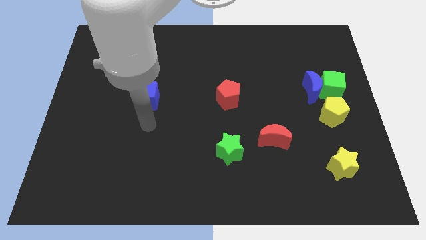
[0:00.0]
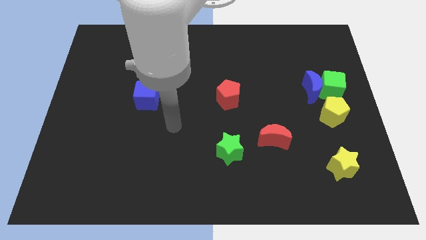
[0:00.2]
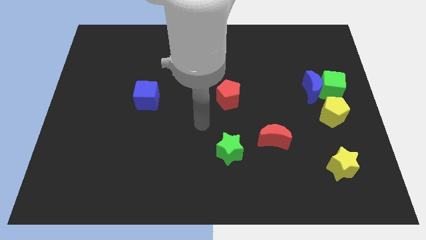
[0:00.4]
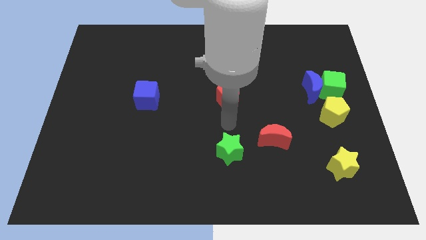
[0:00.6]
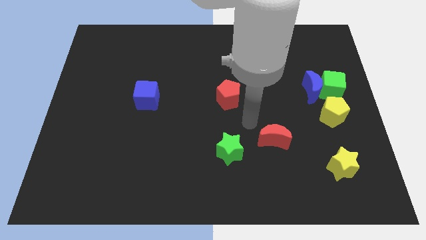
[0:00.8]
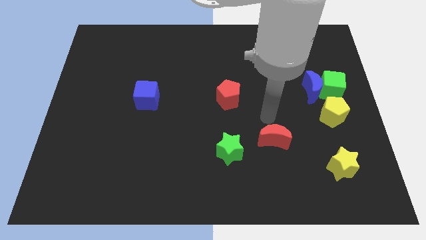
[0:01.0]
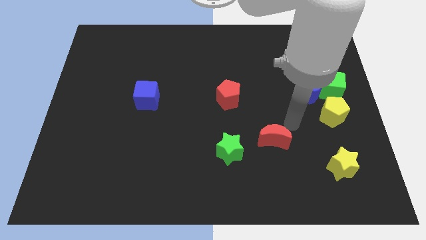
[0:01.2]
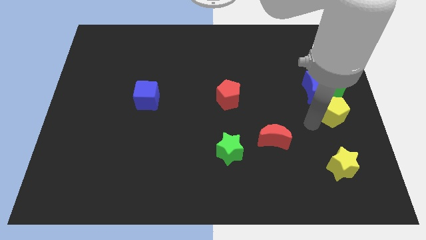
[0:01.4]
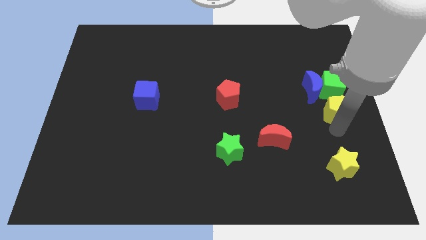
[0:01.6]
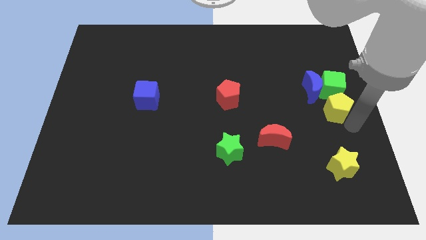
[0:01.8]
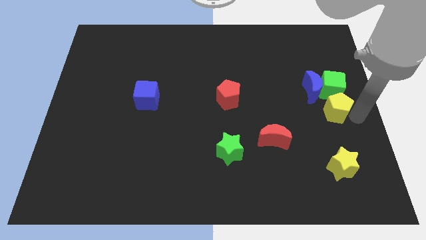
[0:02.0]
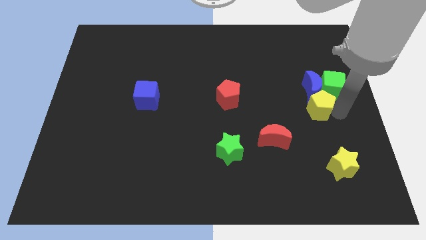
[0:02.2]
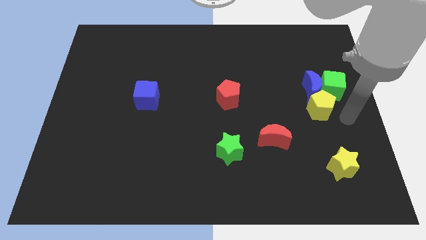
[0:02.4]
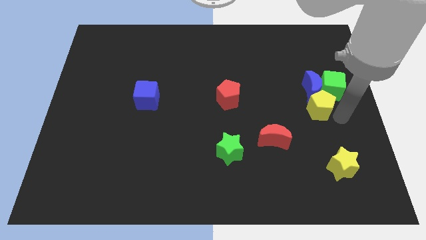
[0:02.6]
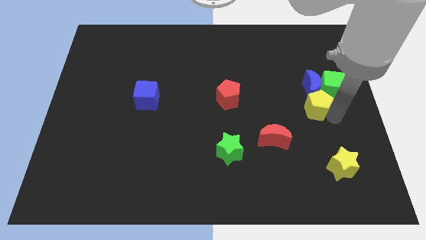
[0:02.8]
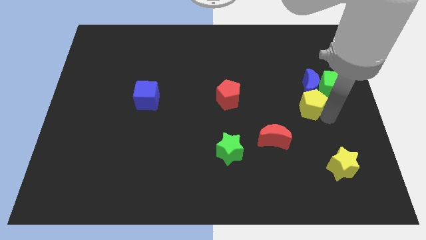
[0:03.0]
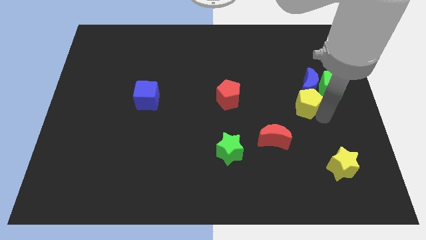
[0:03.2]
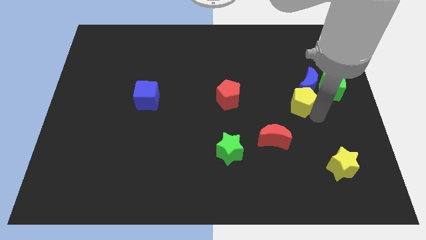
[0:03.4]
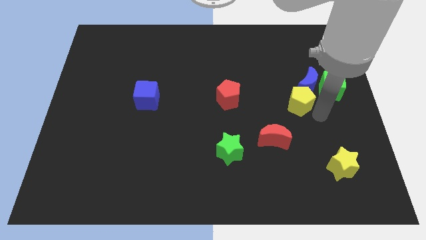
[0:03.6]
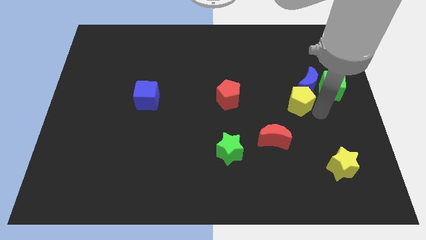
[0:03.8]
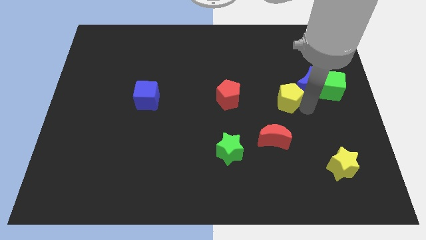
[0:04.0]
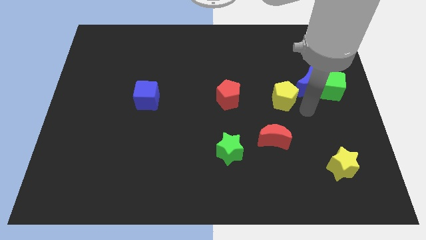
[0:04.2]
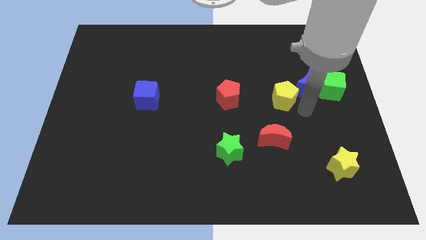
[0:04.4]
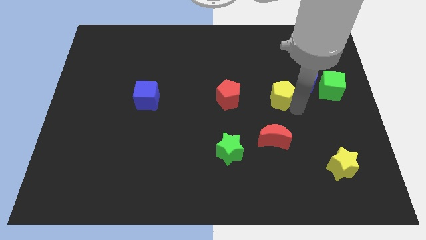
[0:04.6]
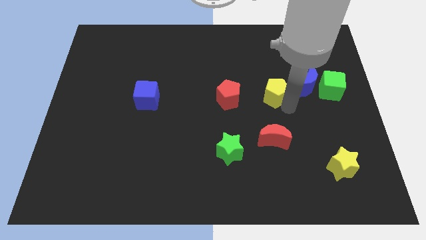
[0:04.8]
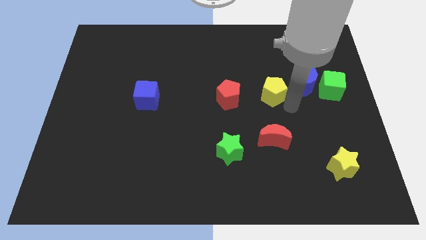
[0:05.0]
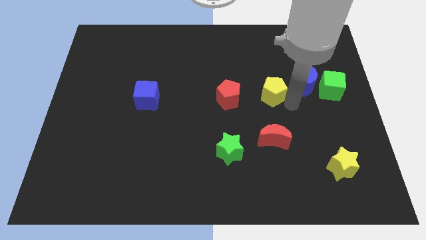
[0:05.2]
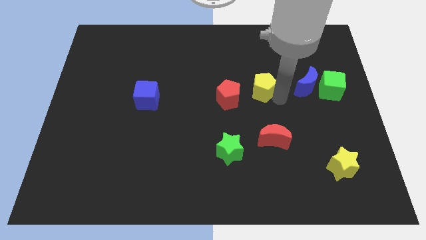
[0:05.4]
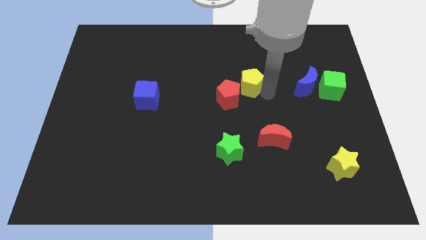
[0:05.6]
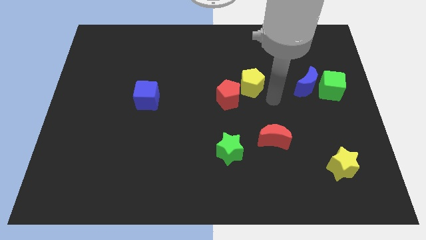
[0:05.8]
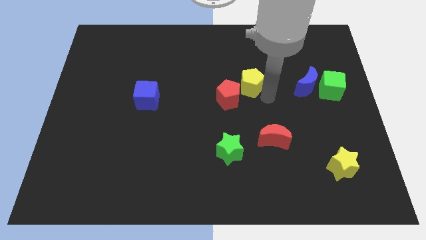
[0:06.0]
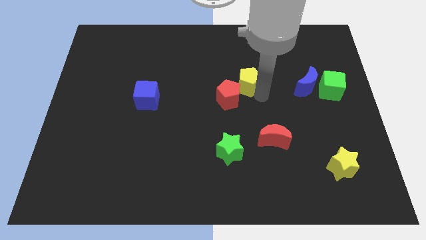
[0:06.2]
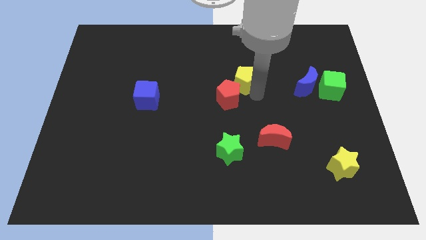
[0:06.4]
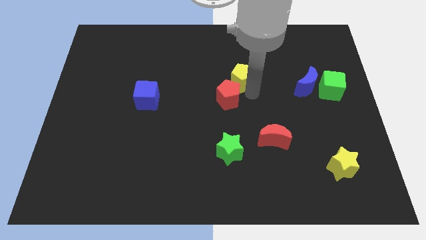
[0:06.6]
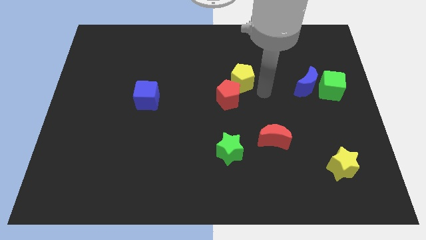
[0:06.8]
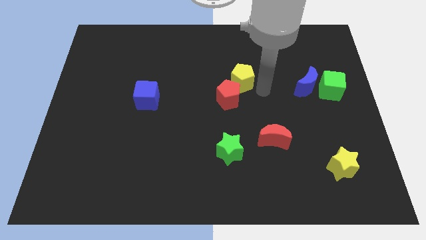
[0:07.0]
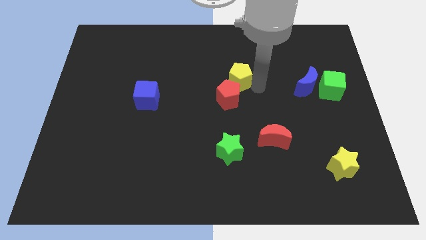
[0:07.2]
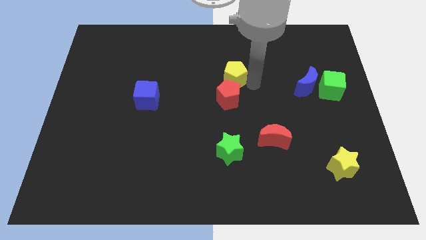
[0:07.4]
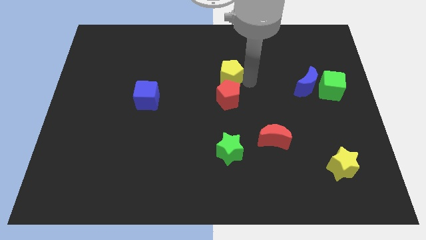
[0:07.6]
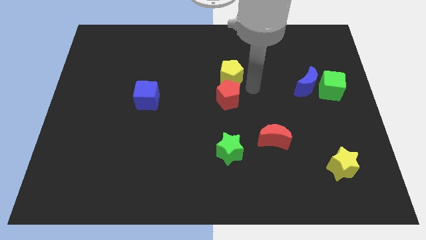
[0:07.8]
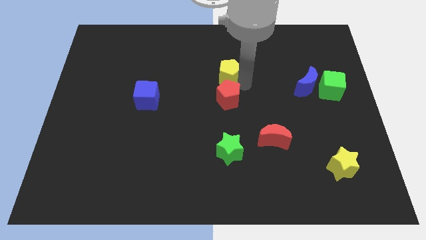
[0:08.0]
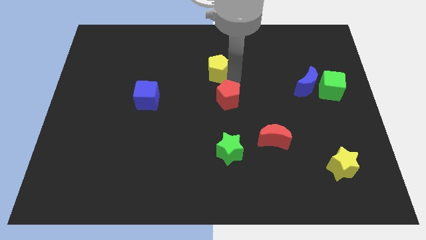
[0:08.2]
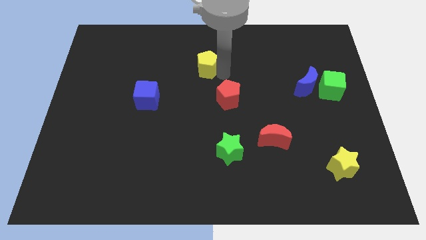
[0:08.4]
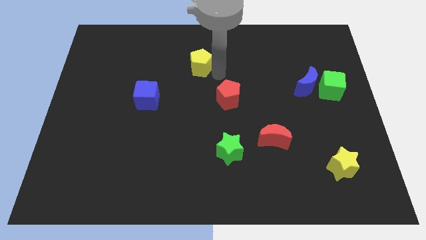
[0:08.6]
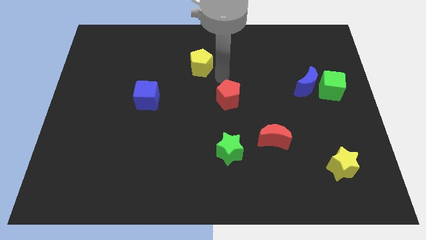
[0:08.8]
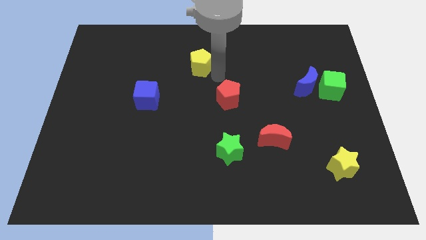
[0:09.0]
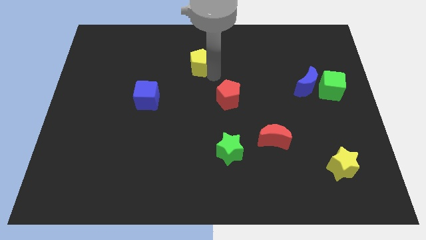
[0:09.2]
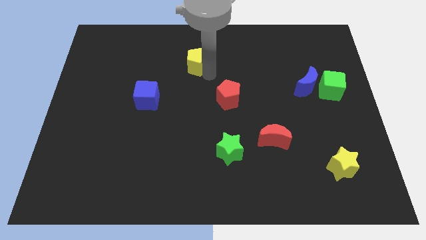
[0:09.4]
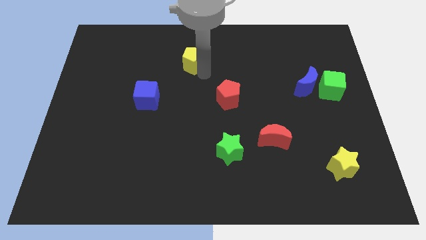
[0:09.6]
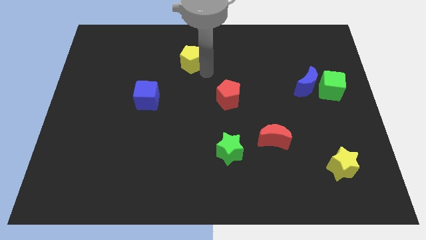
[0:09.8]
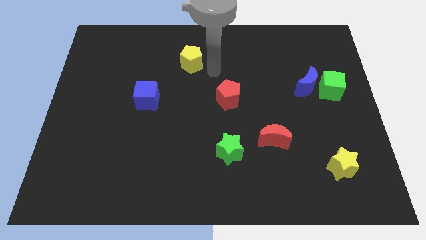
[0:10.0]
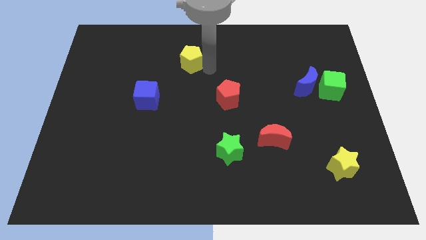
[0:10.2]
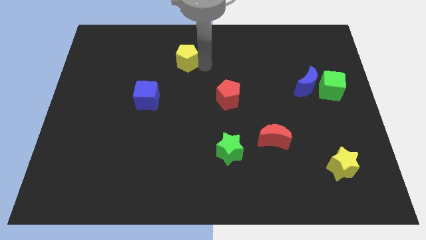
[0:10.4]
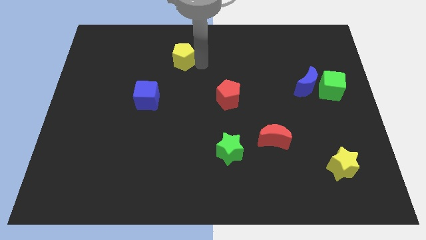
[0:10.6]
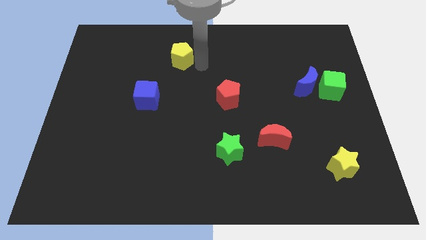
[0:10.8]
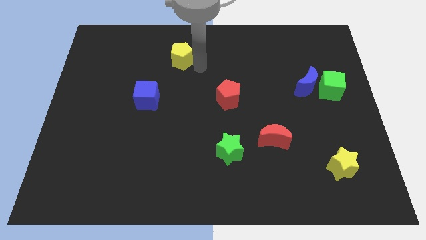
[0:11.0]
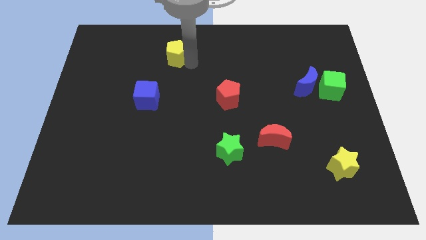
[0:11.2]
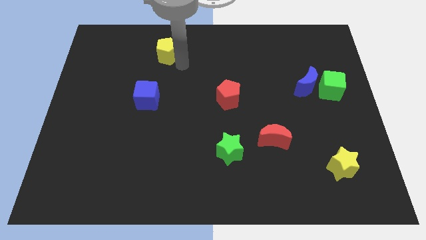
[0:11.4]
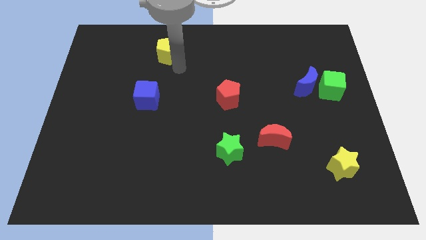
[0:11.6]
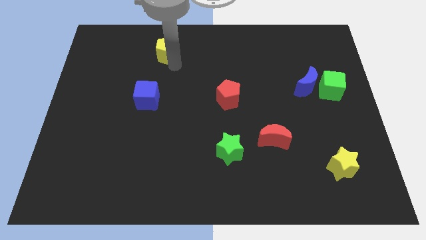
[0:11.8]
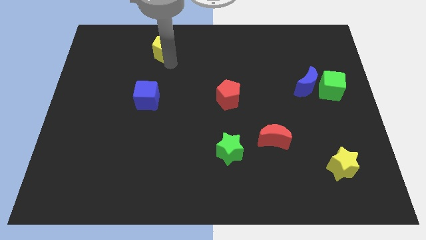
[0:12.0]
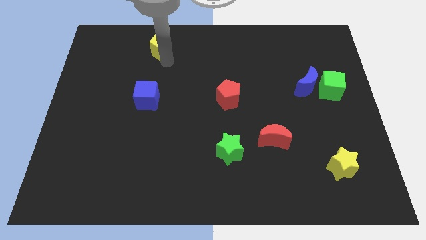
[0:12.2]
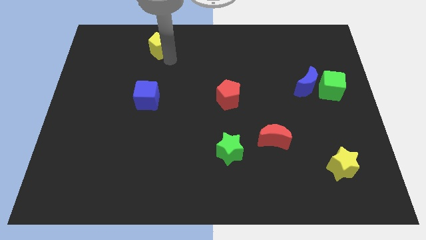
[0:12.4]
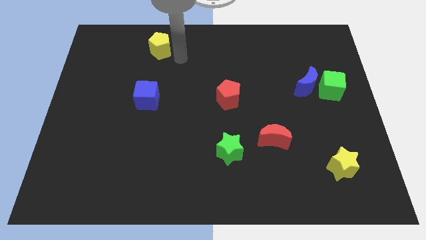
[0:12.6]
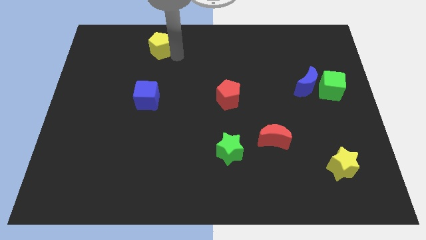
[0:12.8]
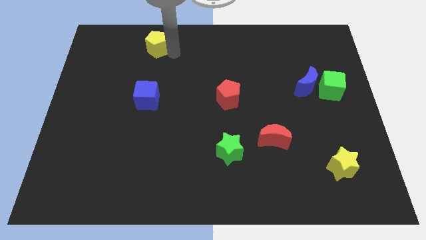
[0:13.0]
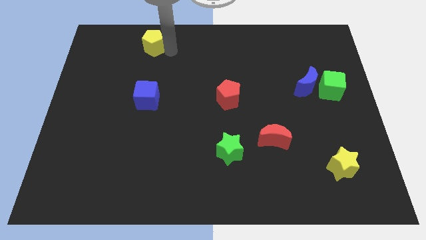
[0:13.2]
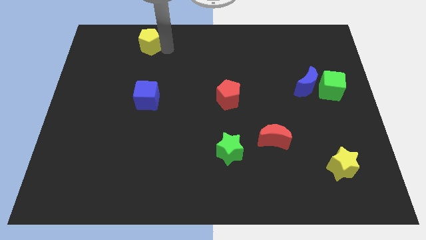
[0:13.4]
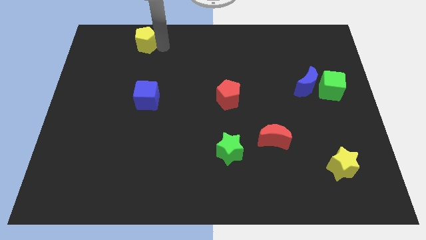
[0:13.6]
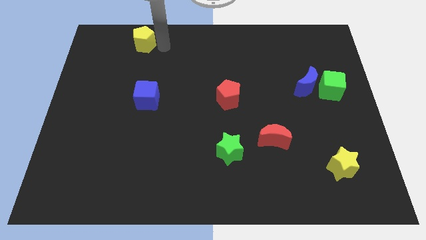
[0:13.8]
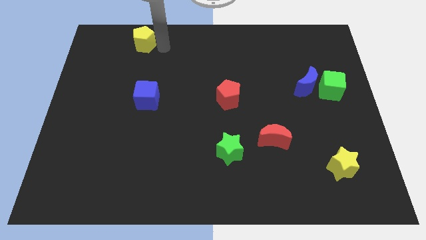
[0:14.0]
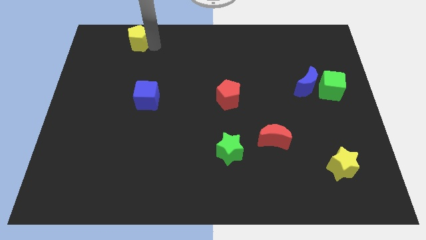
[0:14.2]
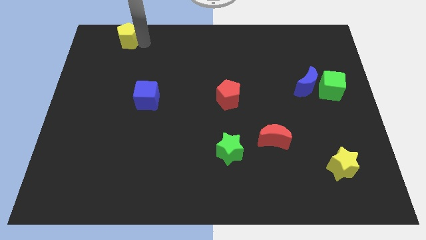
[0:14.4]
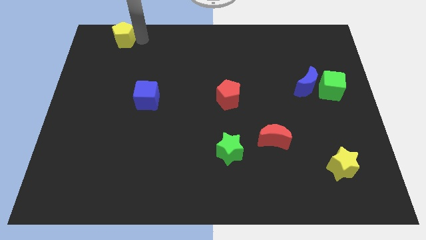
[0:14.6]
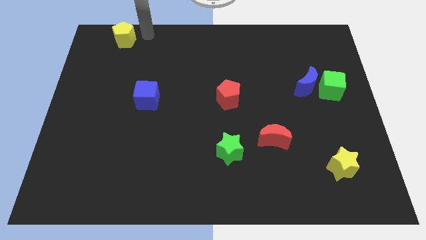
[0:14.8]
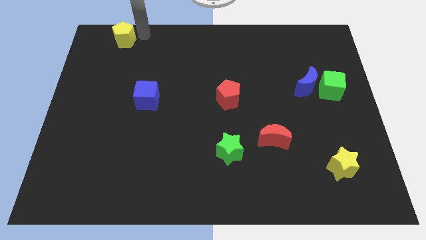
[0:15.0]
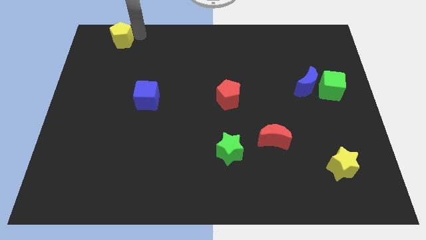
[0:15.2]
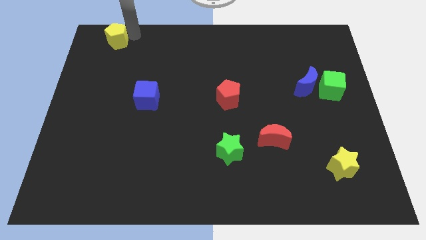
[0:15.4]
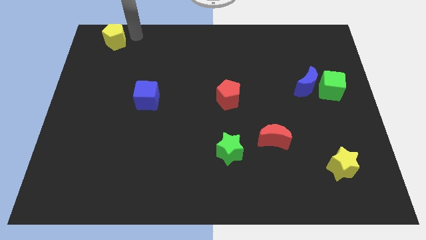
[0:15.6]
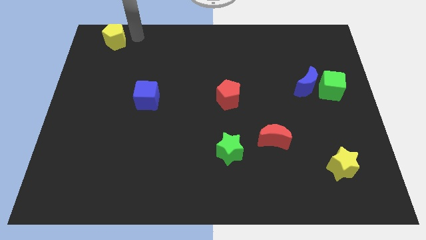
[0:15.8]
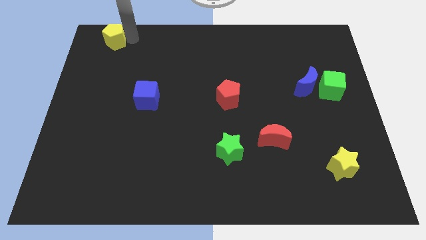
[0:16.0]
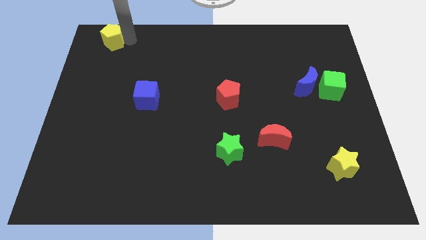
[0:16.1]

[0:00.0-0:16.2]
move the yellow pentagon to the upper left corner
